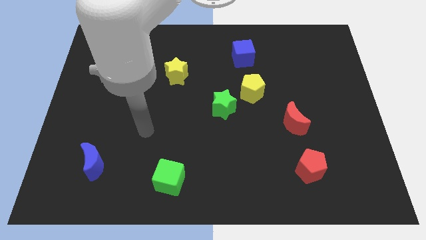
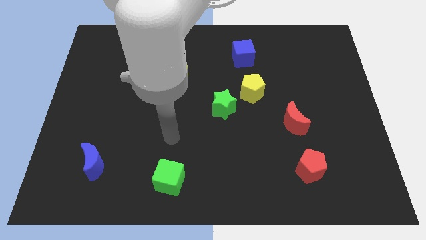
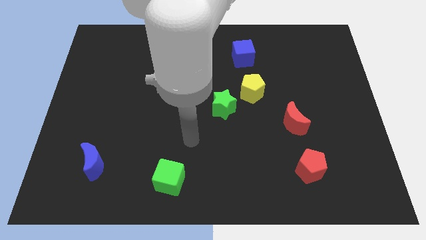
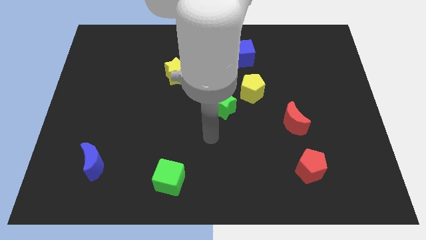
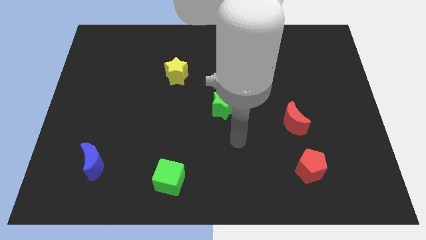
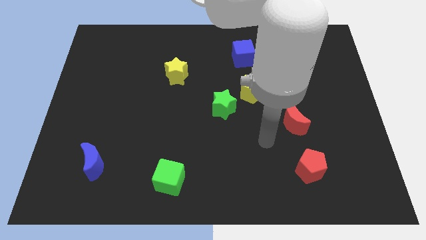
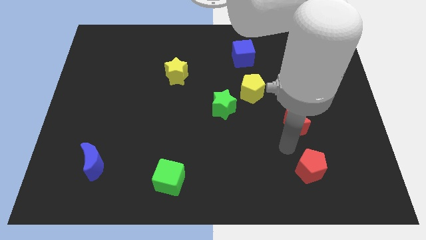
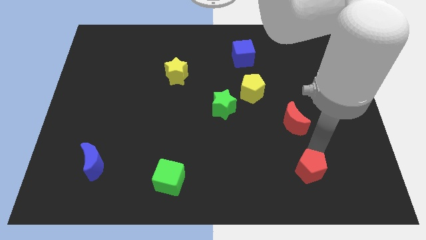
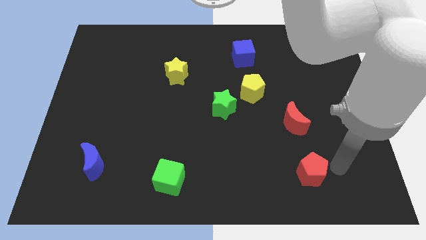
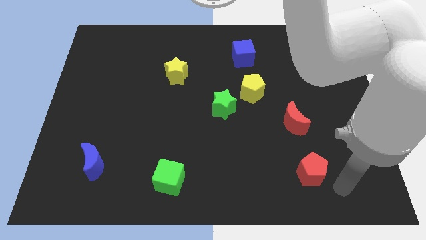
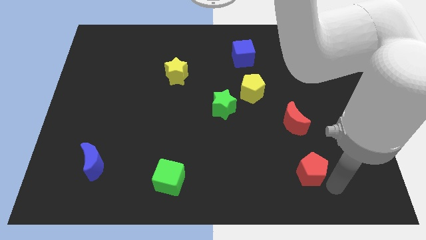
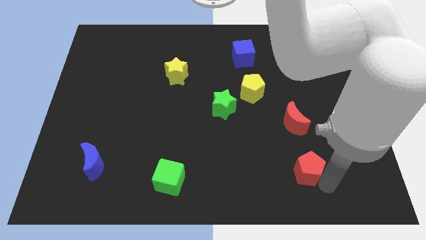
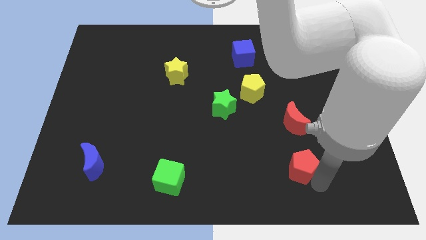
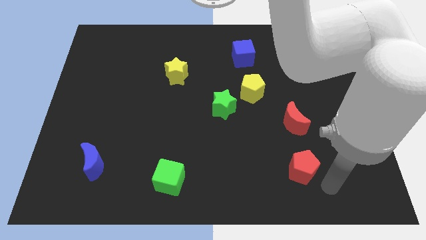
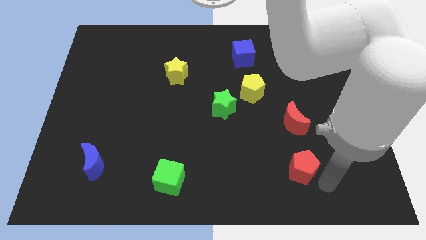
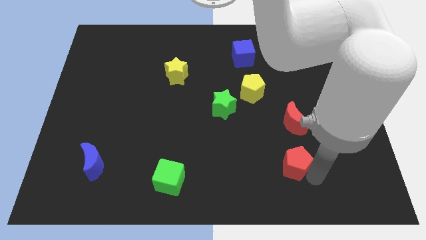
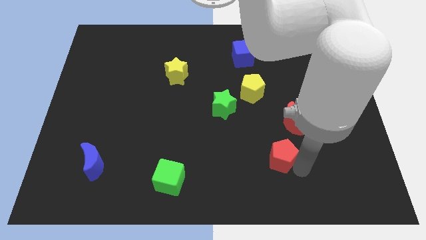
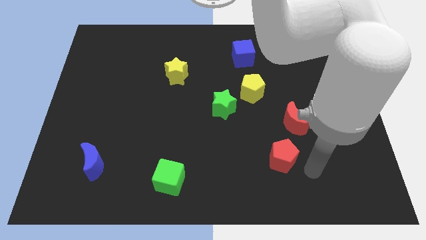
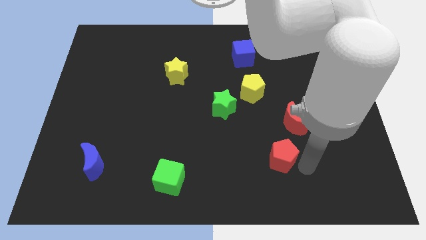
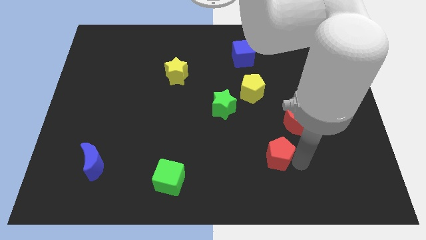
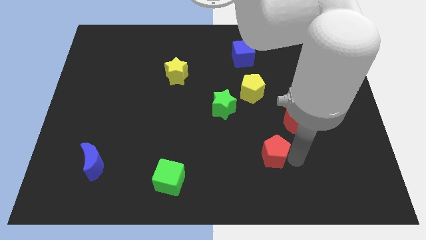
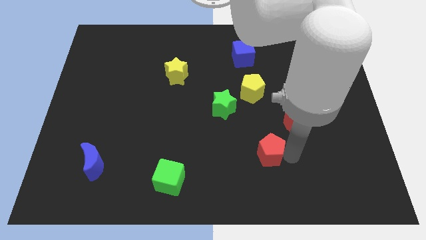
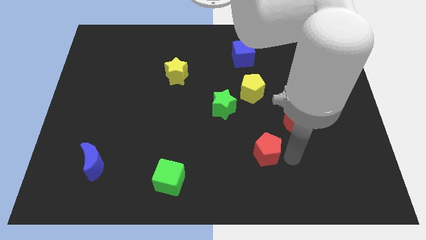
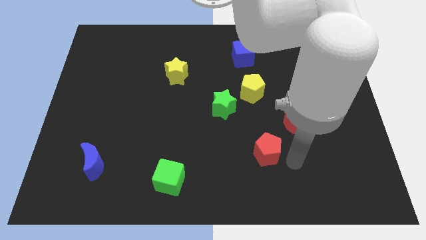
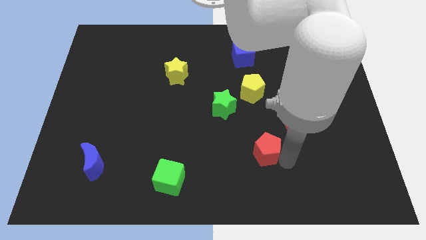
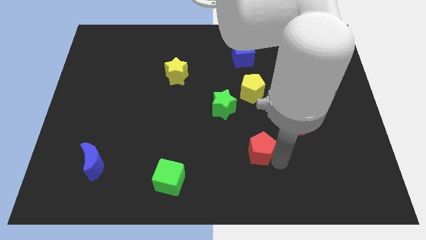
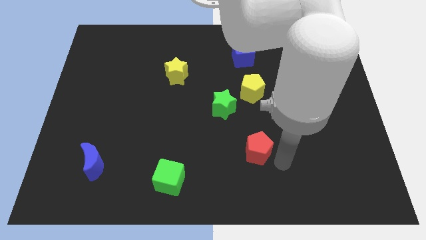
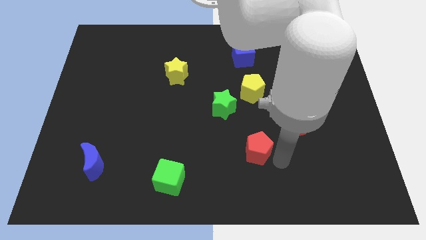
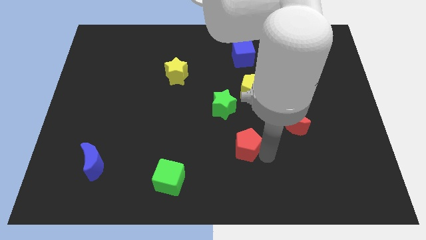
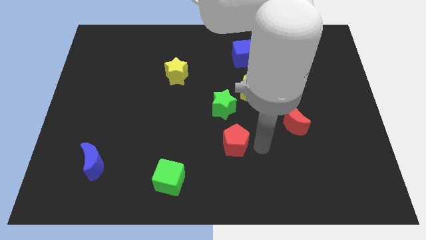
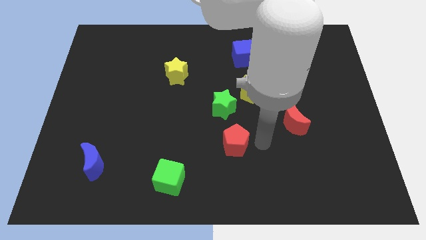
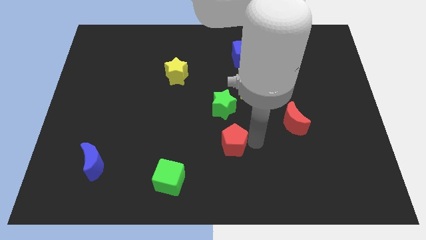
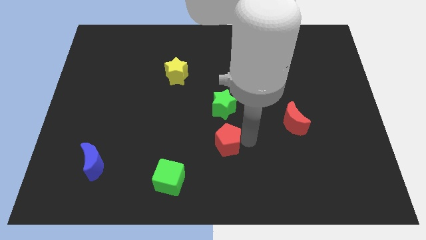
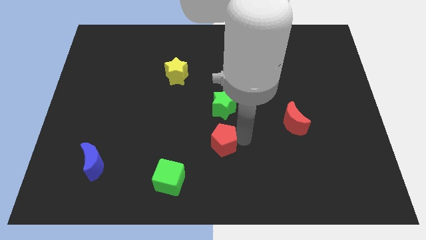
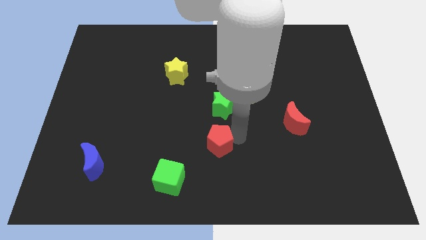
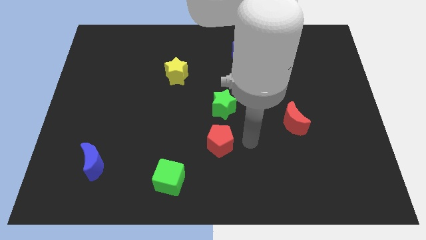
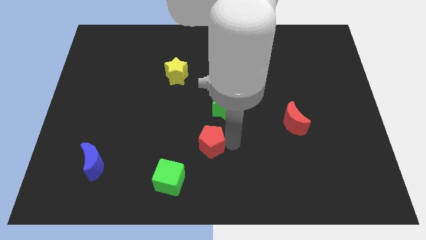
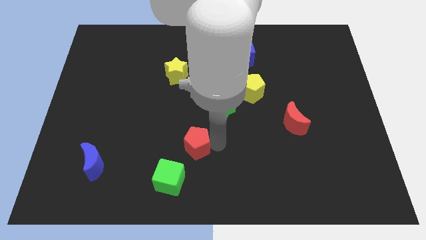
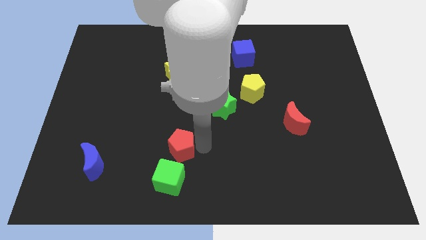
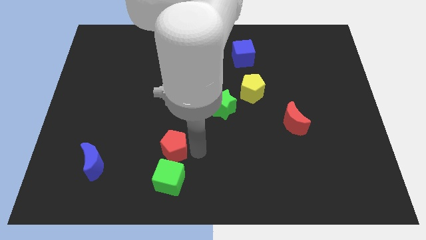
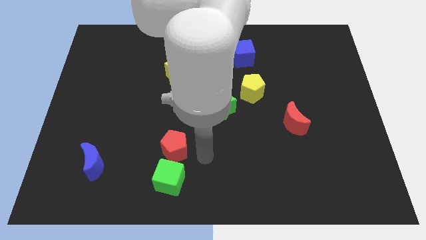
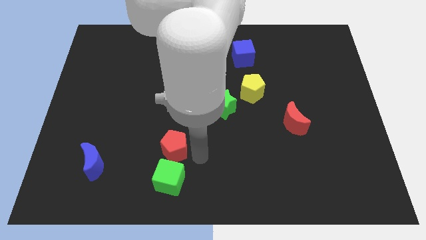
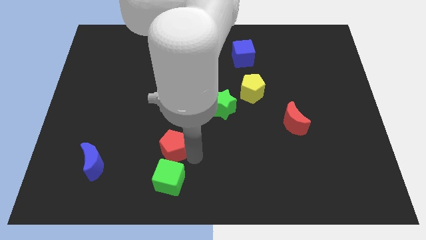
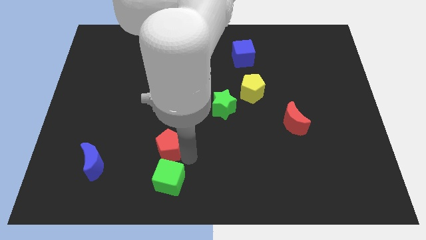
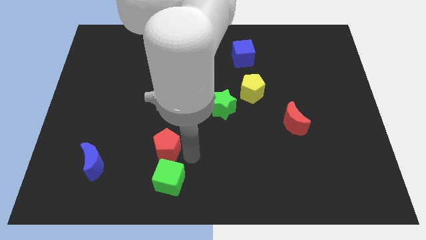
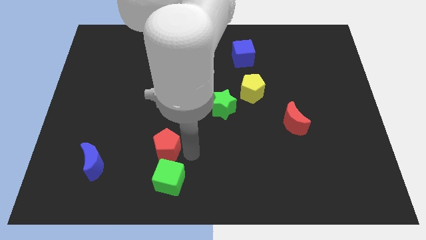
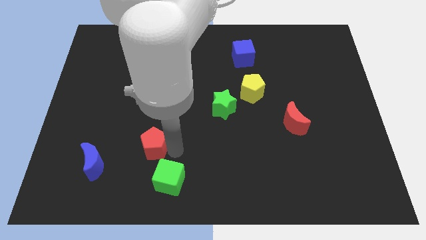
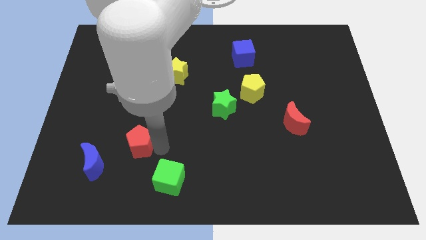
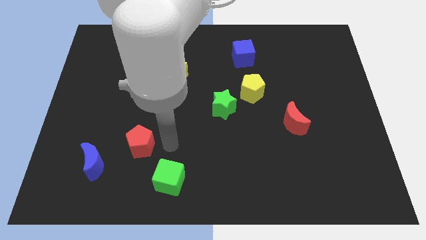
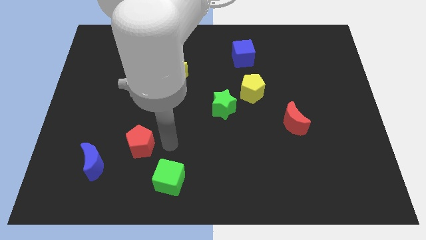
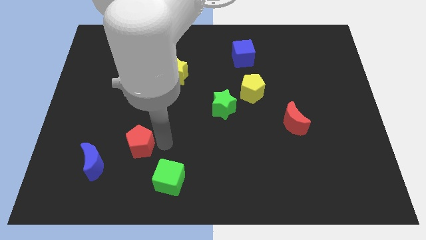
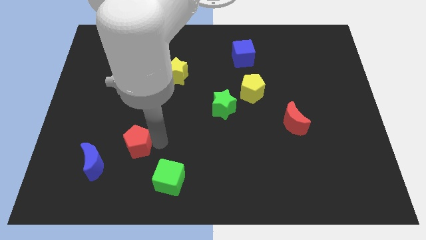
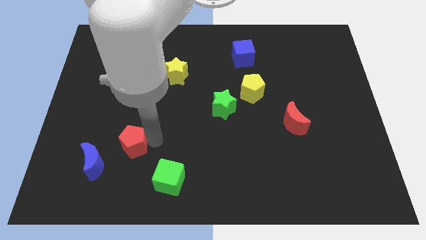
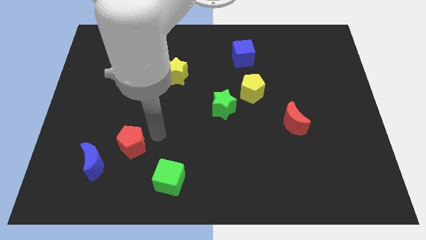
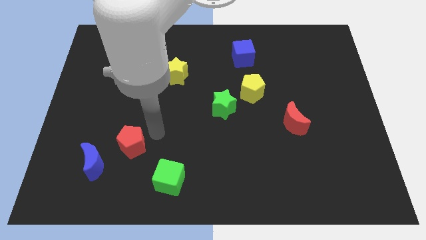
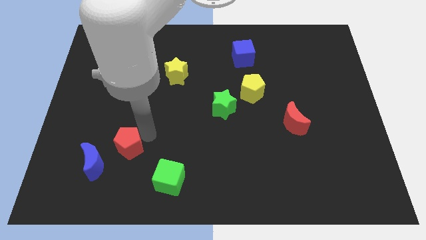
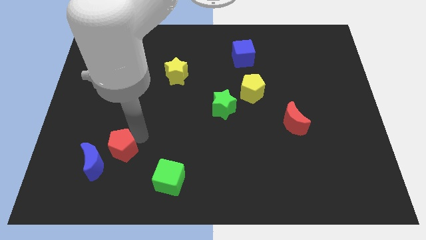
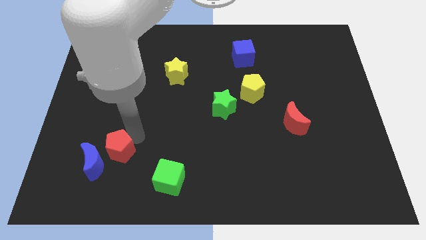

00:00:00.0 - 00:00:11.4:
slide the red pentagon towards the blue moon

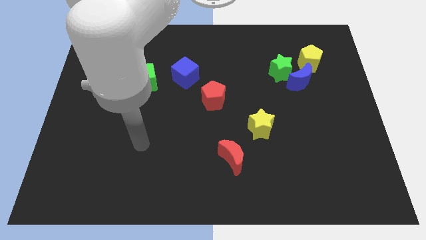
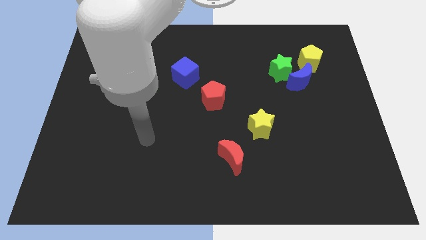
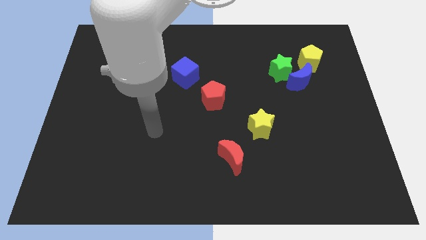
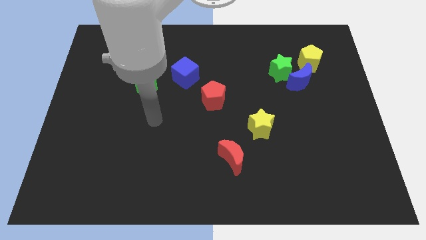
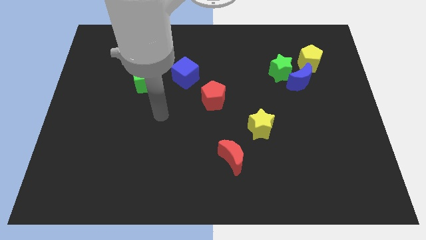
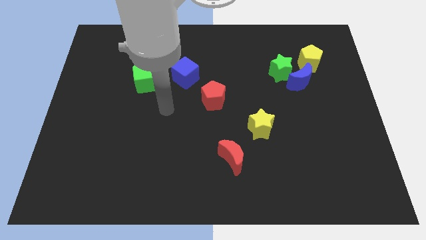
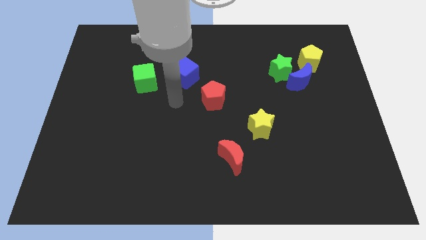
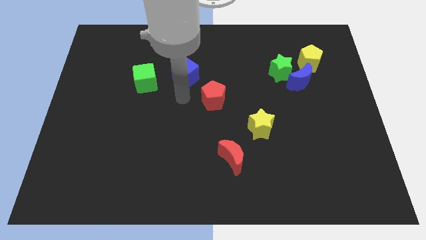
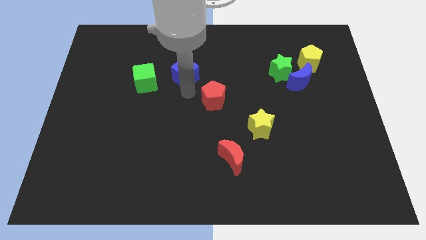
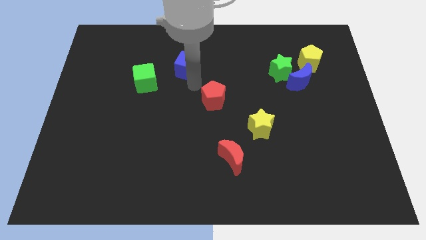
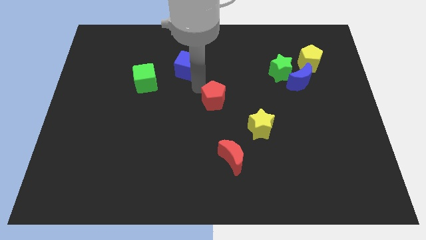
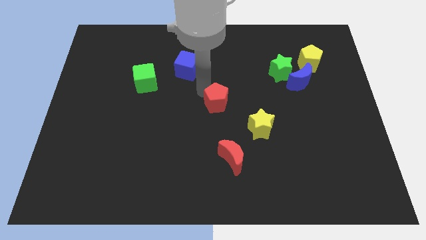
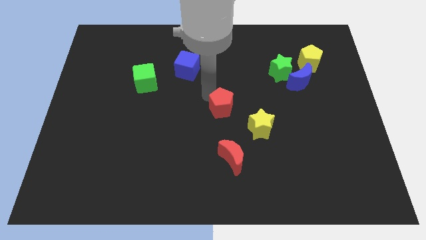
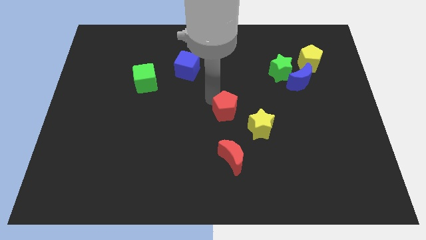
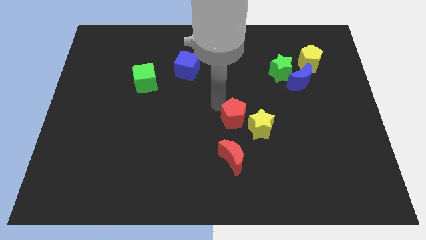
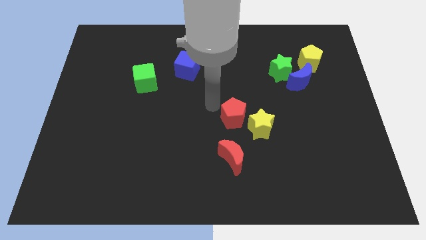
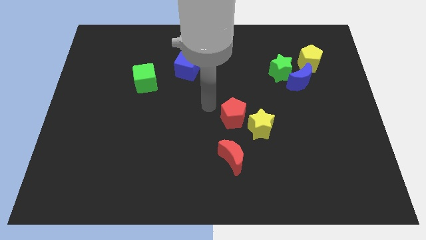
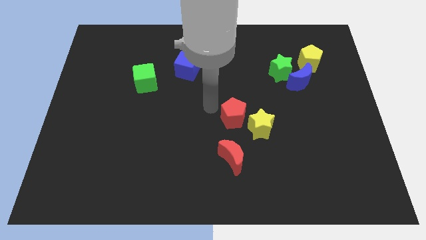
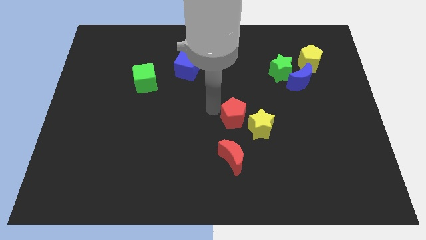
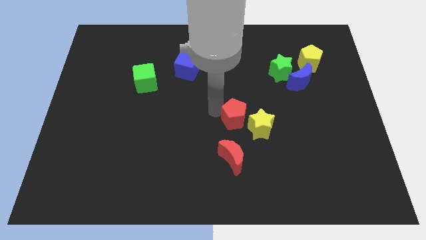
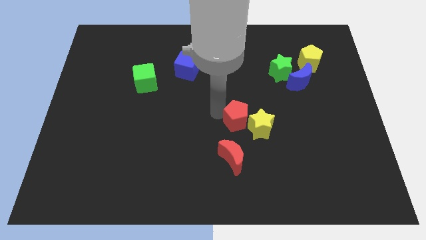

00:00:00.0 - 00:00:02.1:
push the red pentagon towards the yellow star
